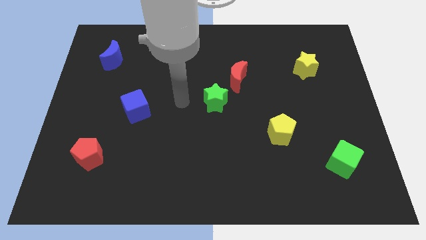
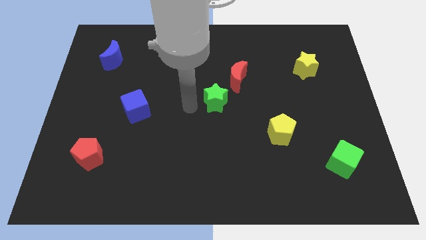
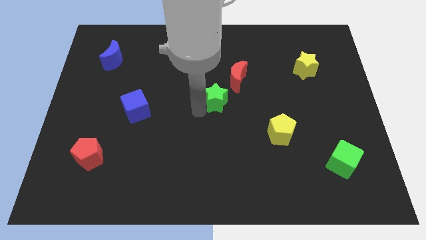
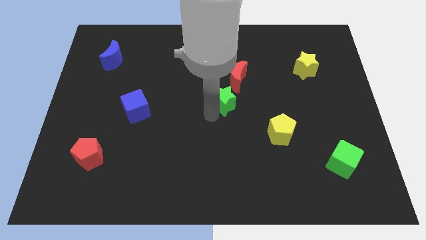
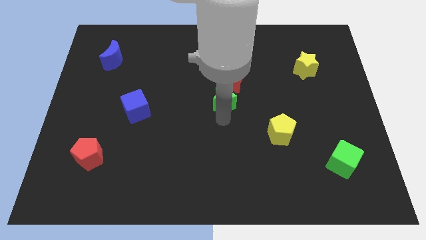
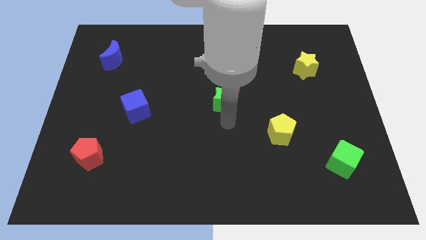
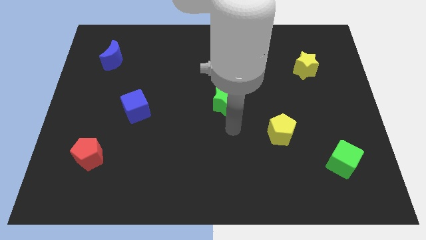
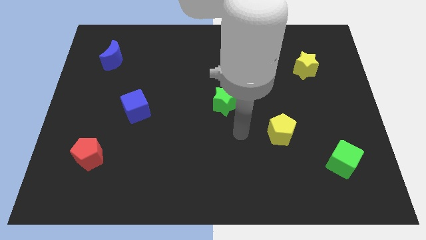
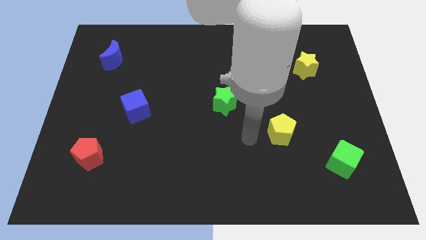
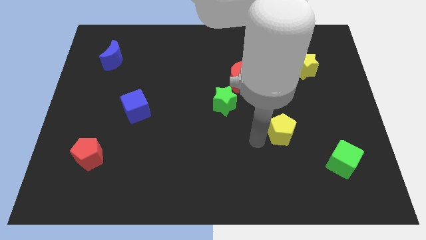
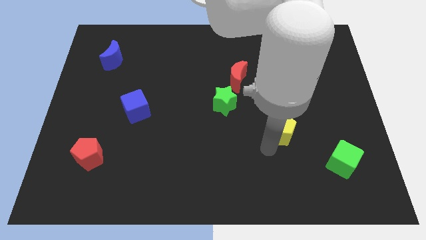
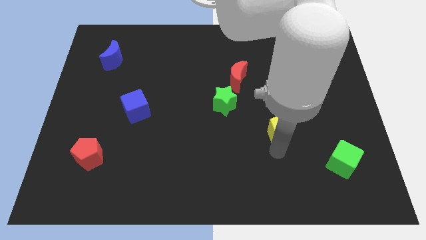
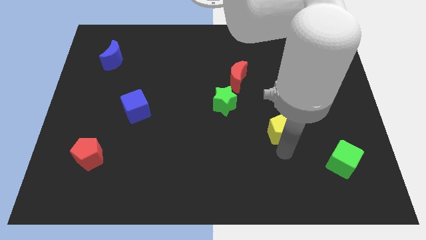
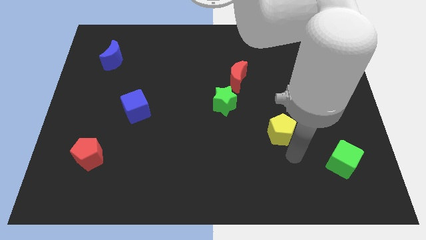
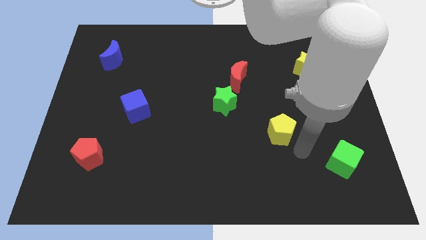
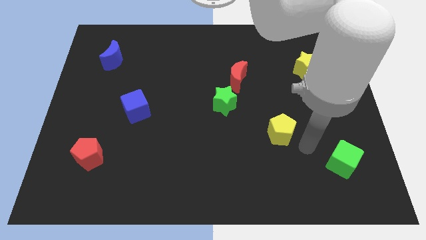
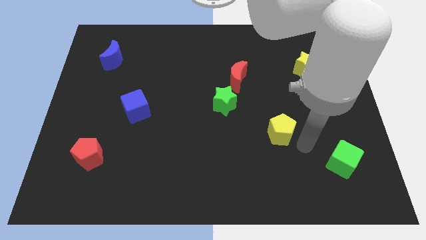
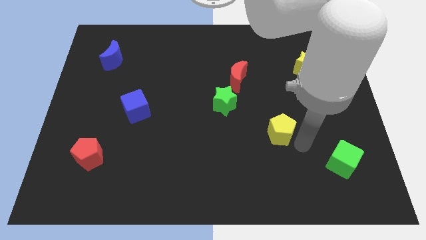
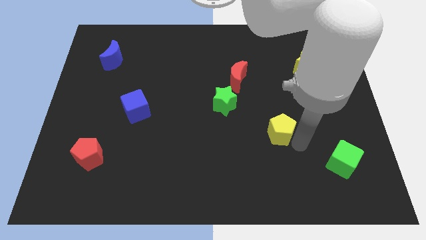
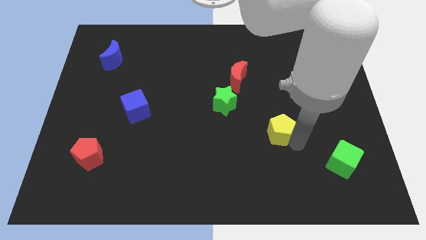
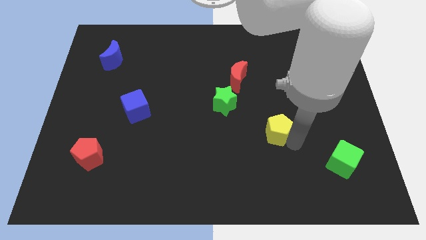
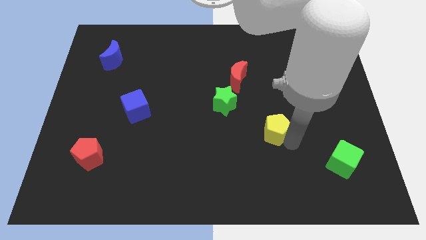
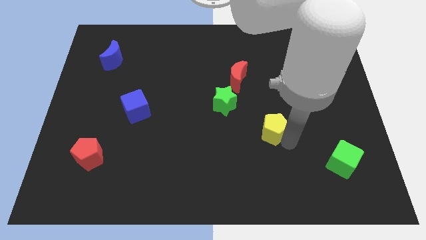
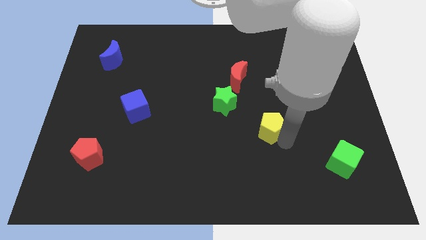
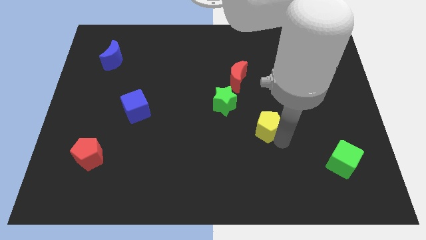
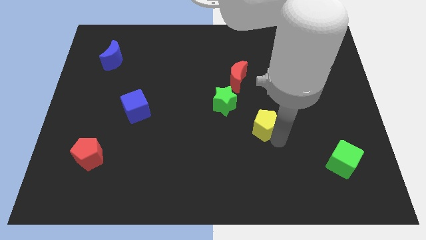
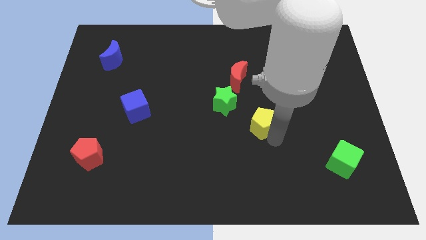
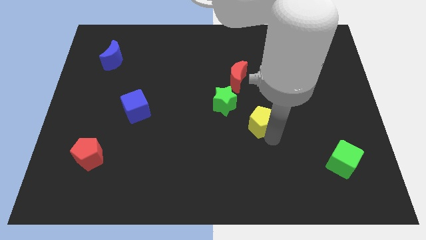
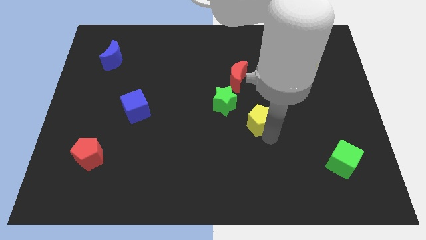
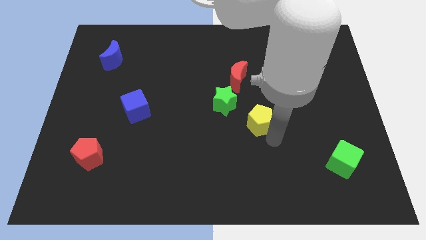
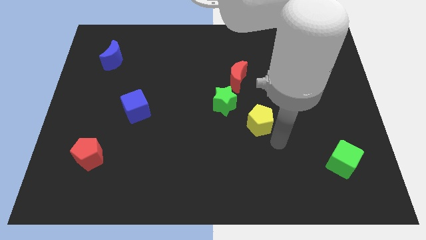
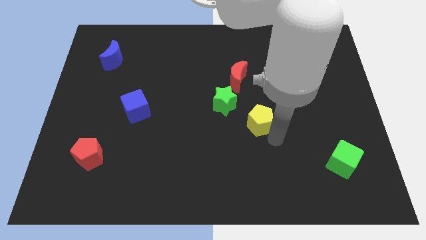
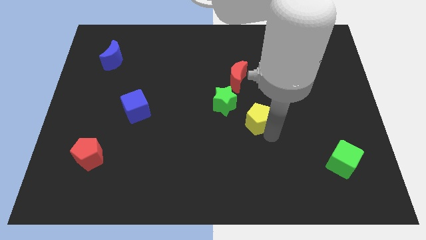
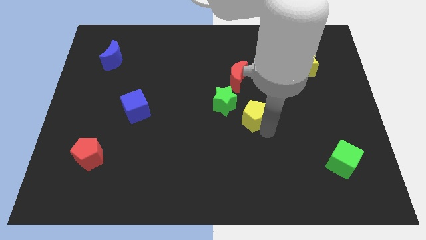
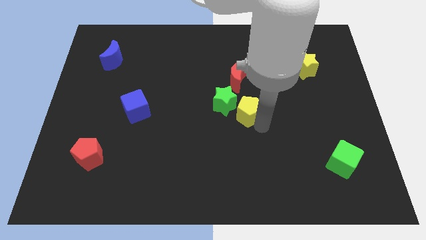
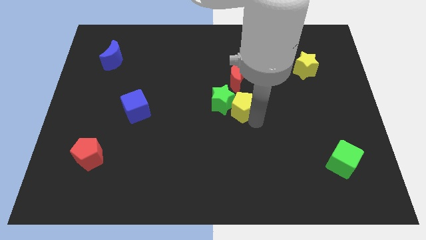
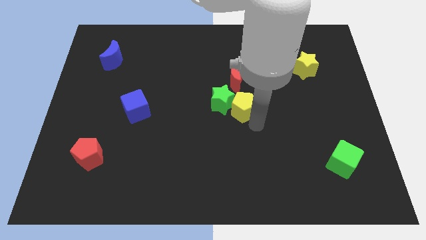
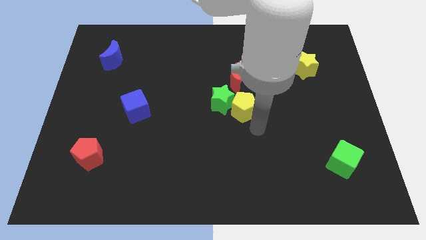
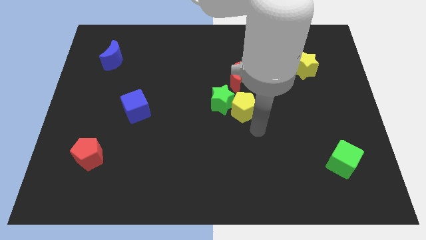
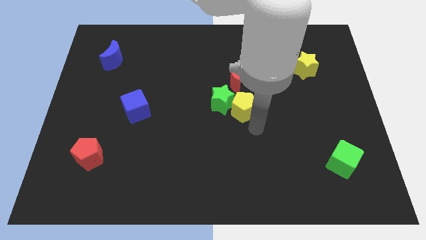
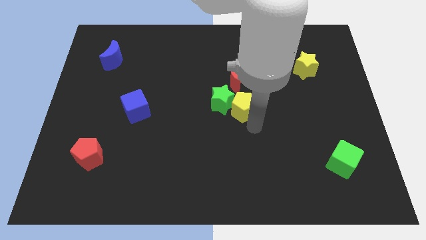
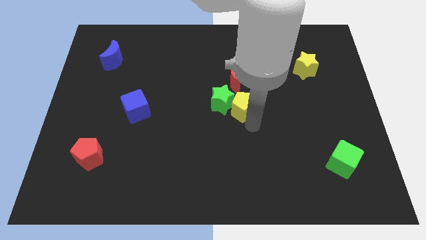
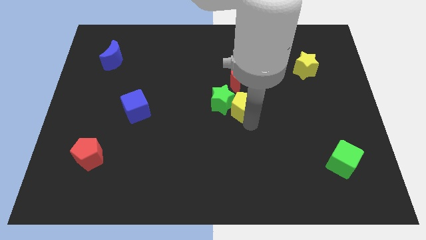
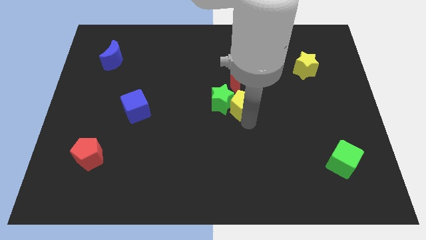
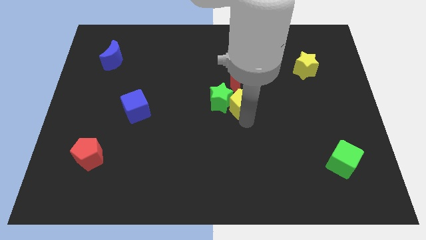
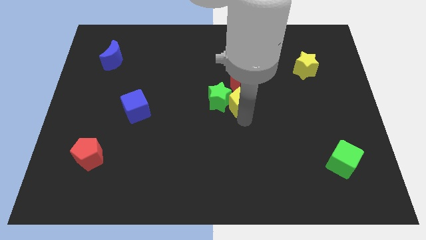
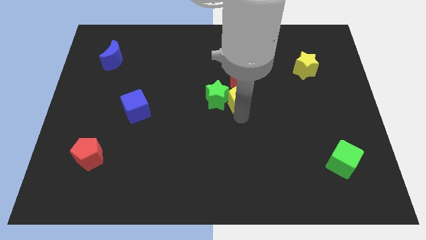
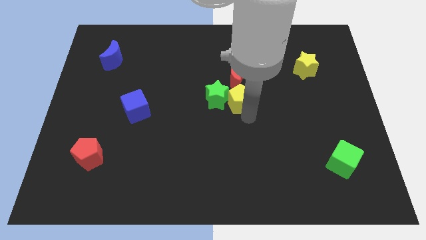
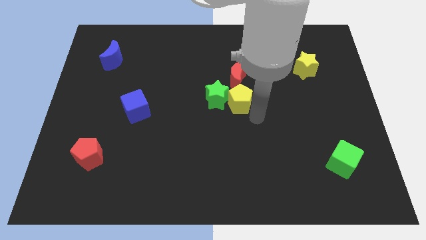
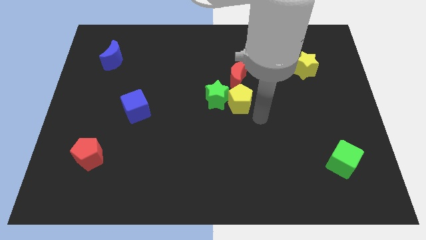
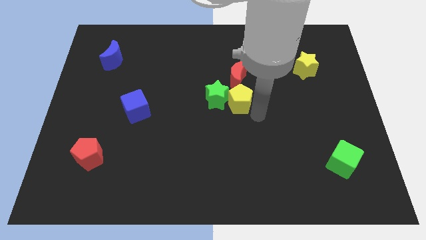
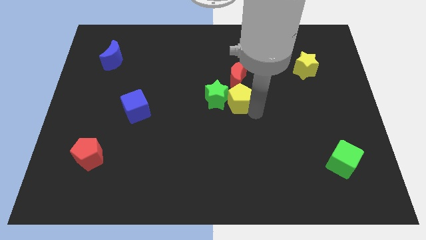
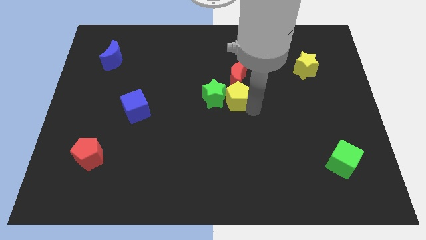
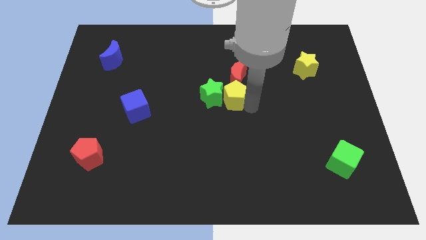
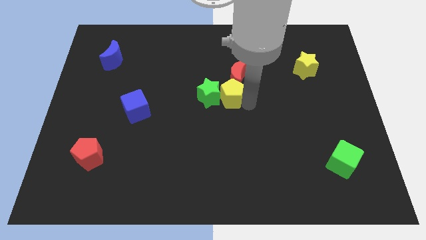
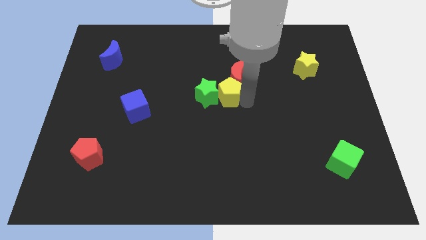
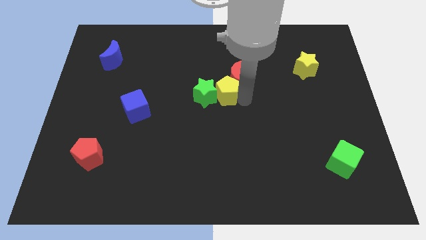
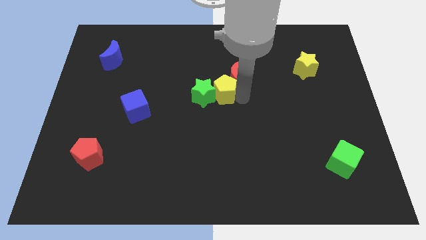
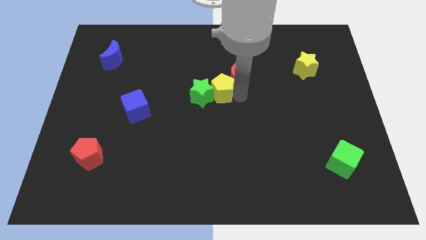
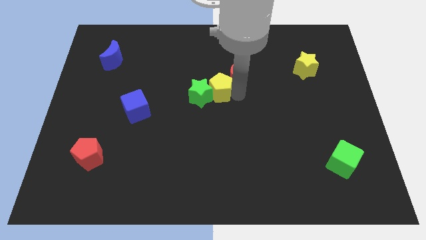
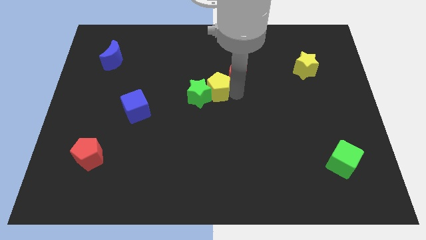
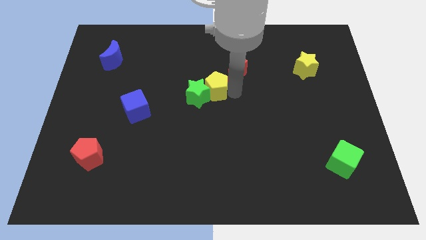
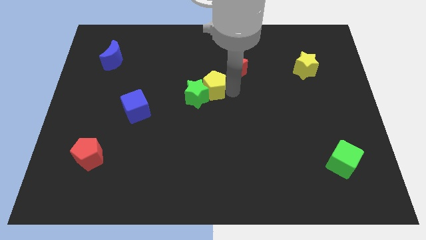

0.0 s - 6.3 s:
slide the yellow pentagon upwards and left diagonally

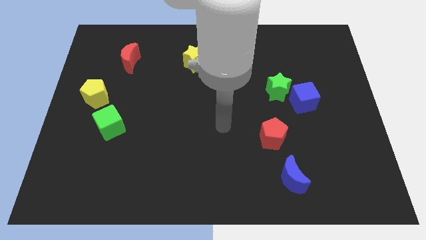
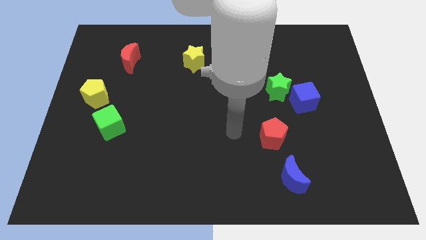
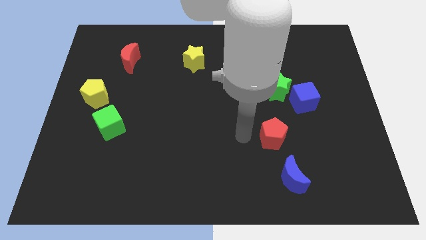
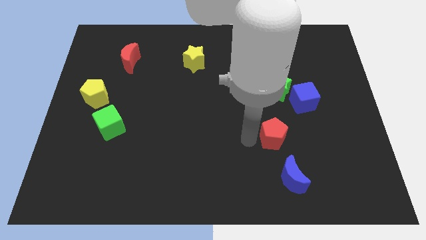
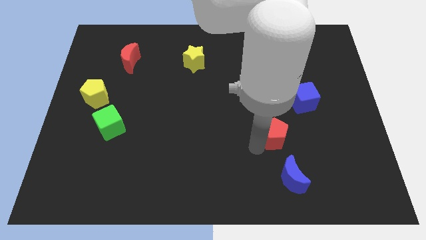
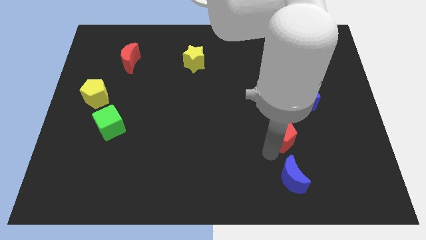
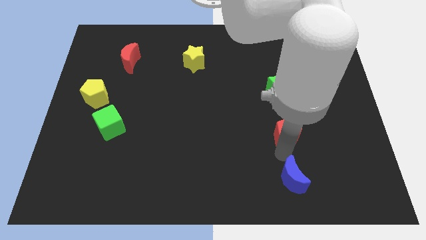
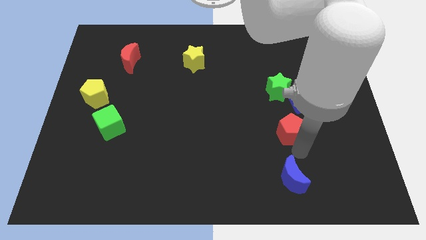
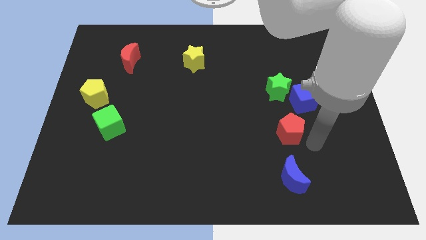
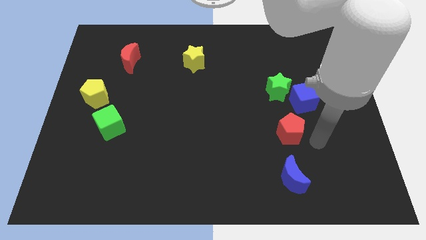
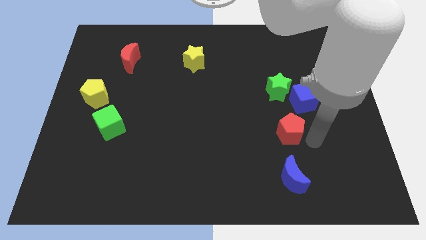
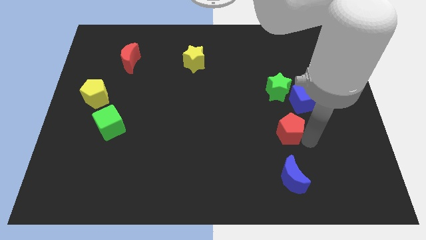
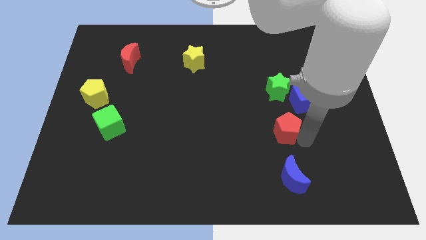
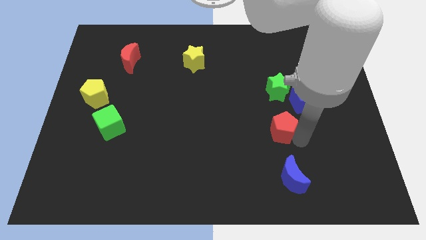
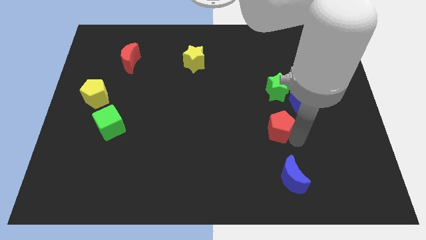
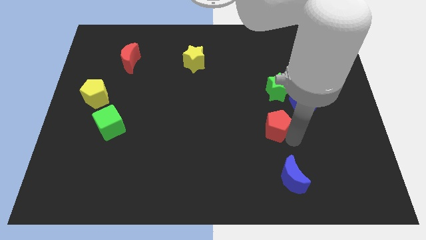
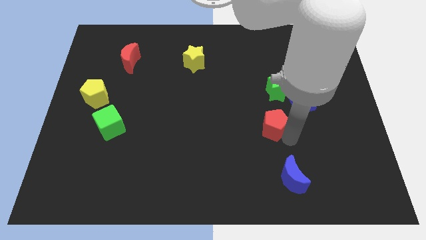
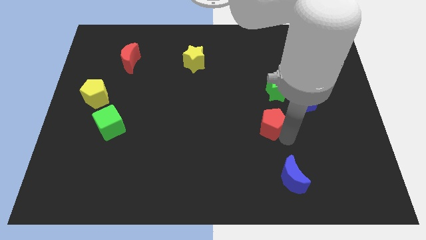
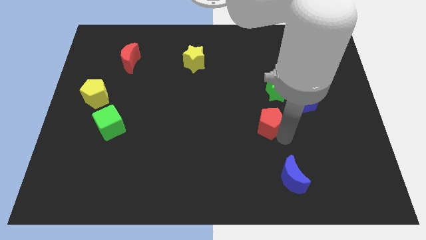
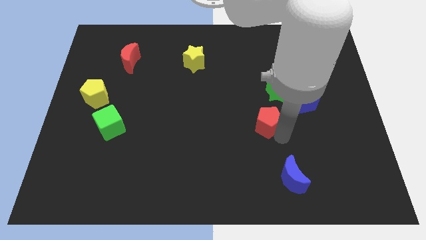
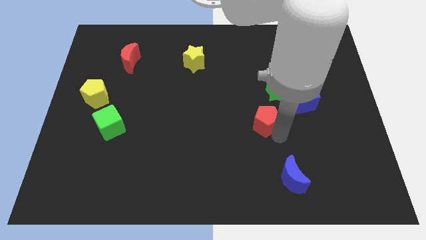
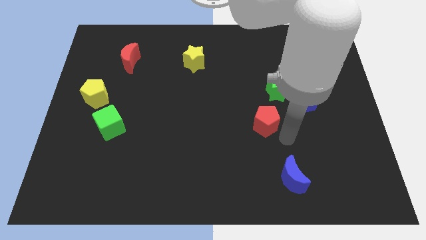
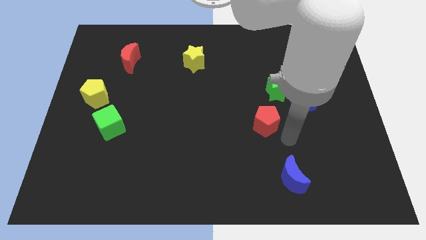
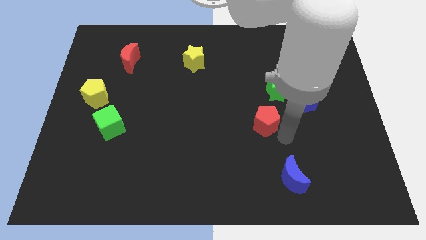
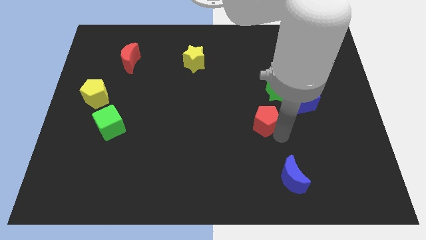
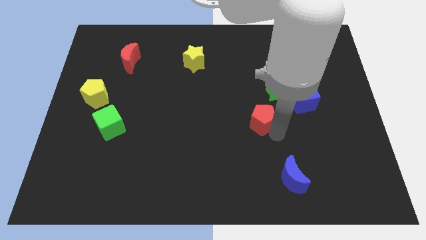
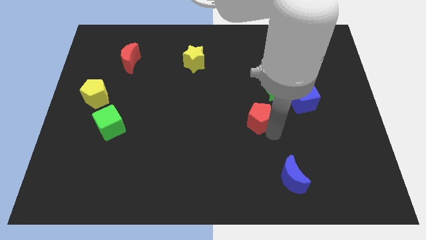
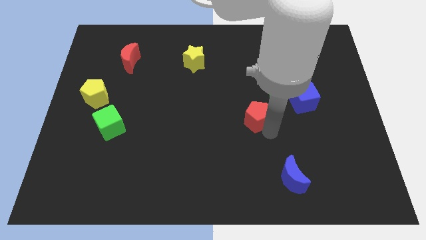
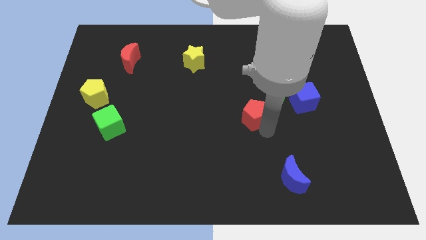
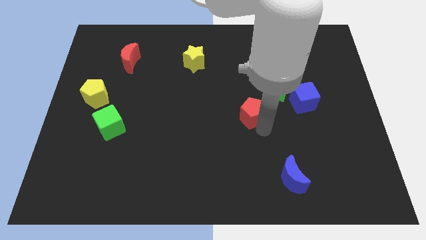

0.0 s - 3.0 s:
slide the red pentagon slightly up and left diagonally
